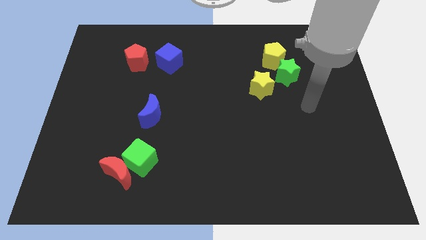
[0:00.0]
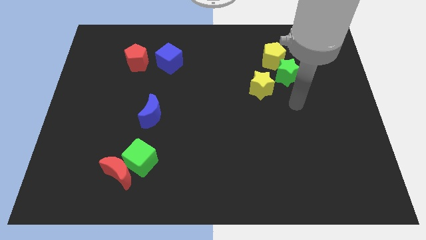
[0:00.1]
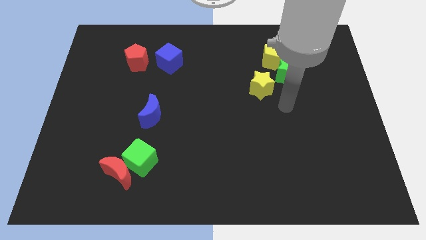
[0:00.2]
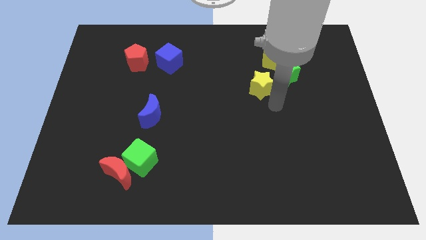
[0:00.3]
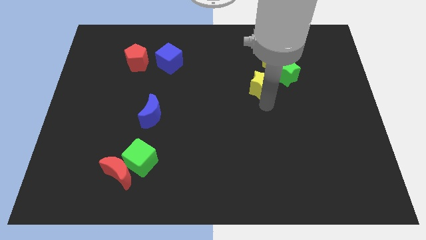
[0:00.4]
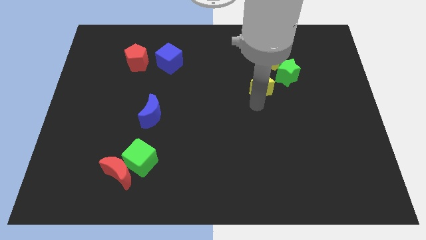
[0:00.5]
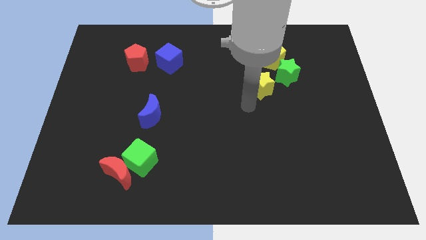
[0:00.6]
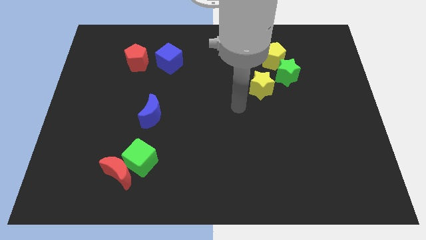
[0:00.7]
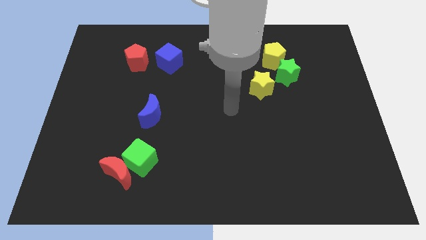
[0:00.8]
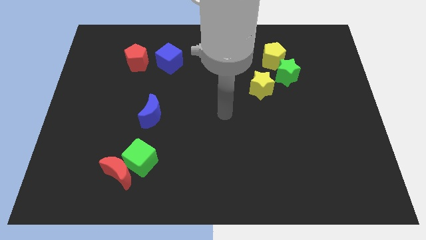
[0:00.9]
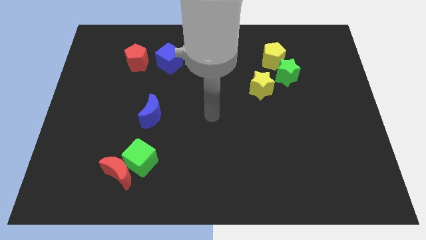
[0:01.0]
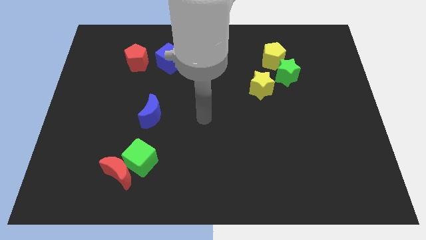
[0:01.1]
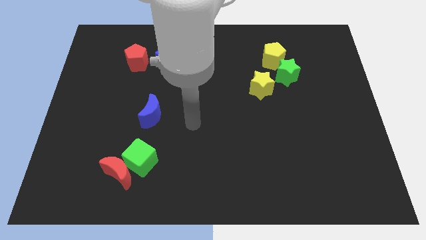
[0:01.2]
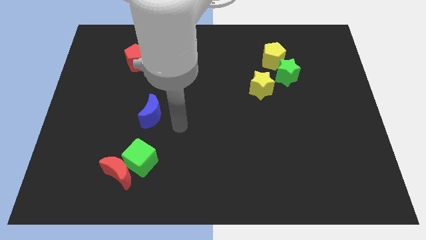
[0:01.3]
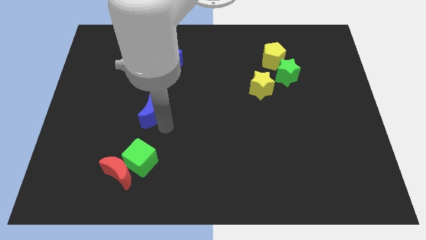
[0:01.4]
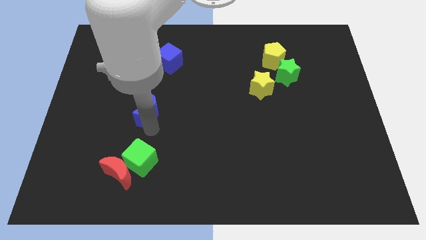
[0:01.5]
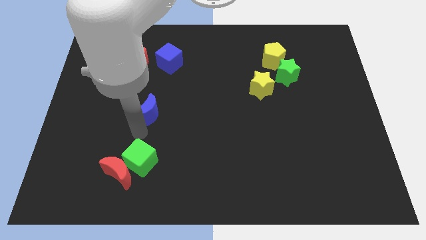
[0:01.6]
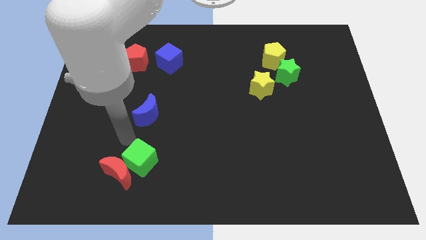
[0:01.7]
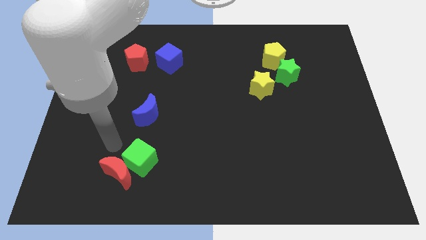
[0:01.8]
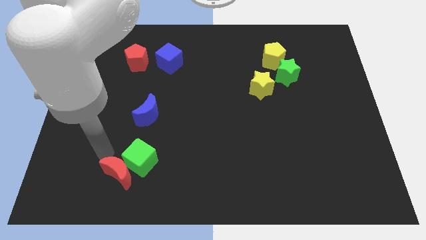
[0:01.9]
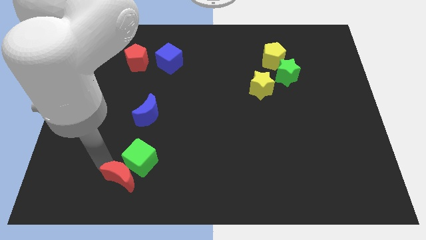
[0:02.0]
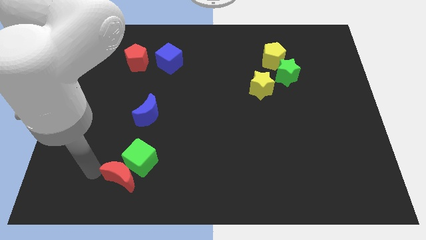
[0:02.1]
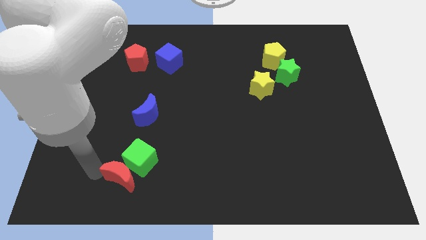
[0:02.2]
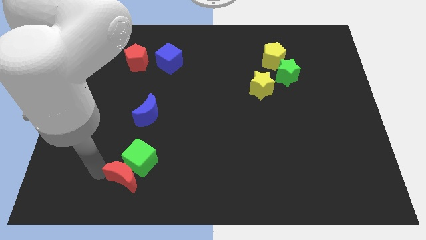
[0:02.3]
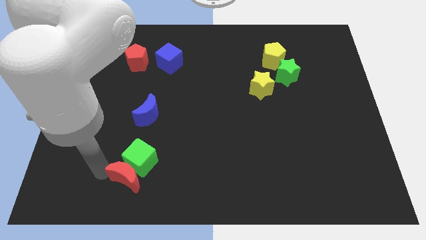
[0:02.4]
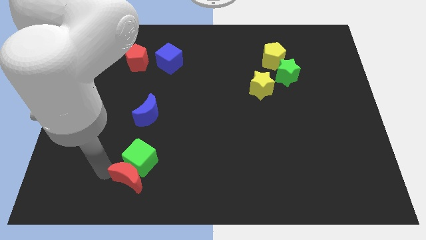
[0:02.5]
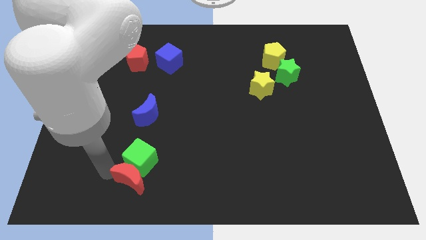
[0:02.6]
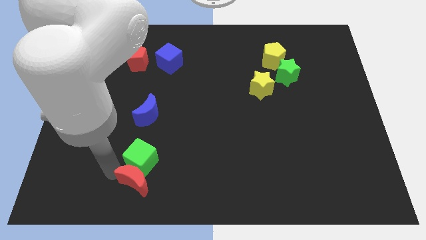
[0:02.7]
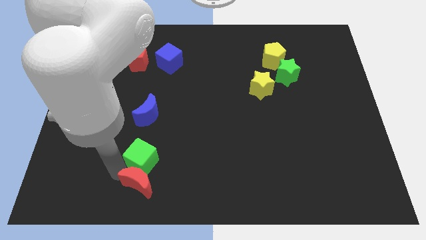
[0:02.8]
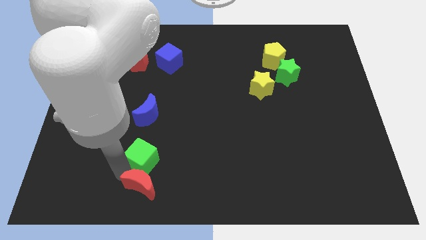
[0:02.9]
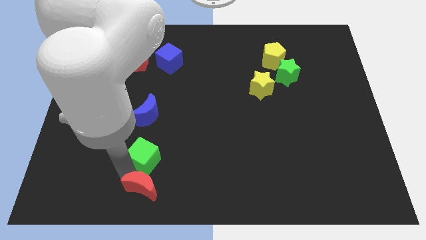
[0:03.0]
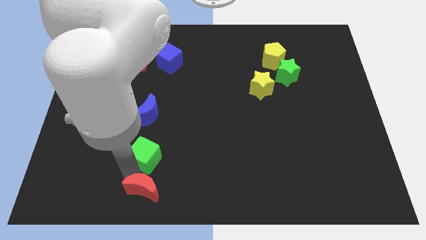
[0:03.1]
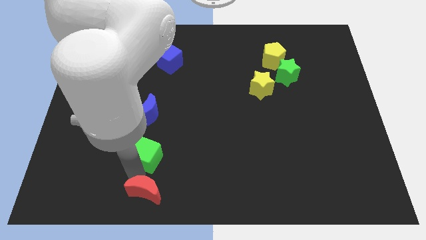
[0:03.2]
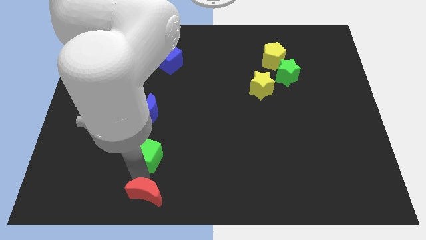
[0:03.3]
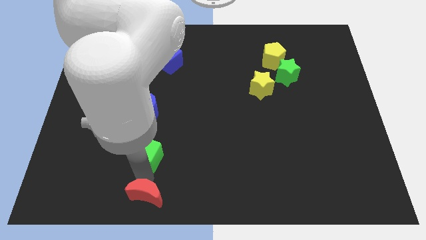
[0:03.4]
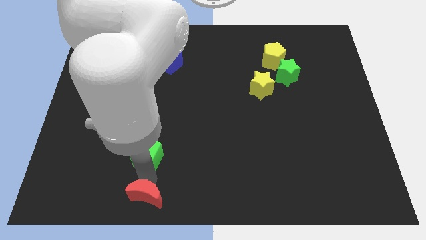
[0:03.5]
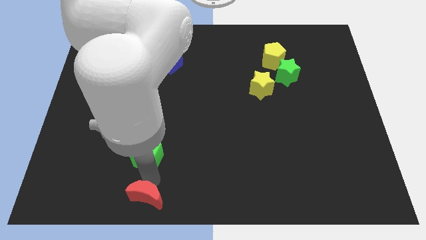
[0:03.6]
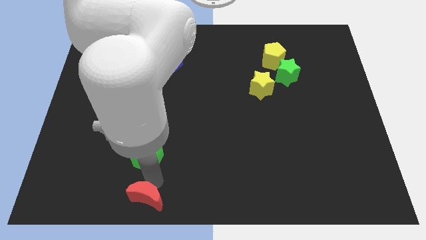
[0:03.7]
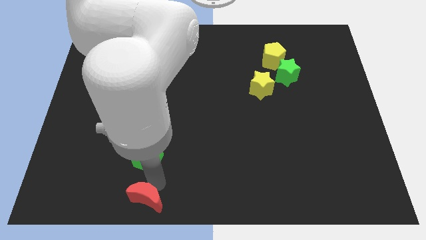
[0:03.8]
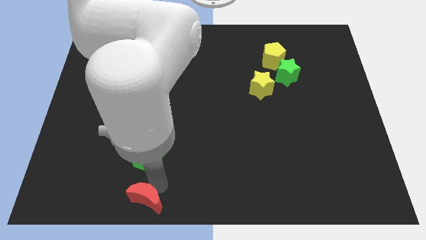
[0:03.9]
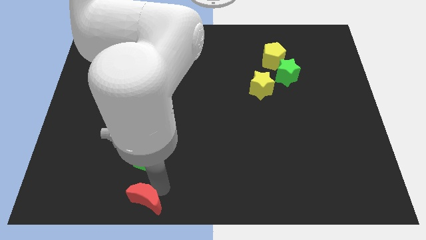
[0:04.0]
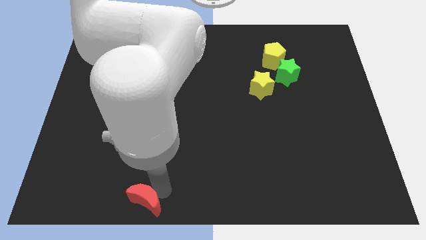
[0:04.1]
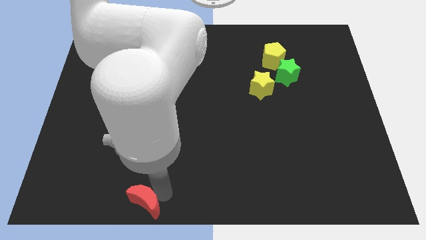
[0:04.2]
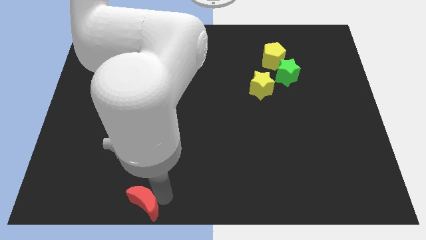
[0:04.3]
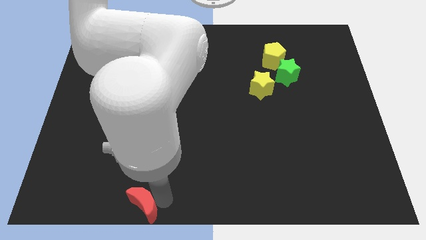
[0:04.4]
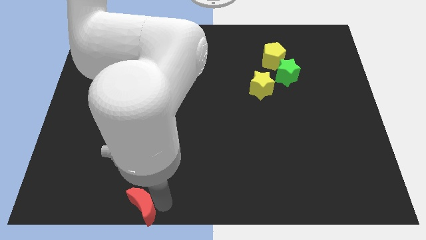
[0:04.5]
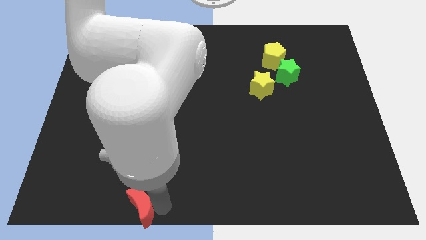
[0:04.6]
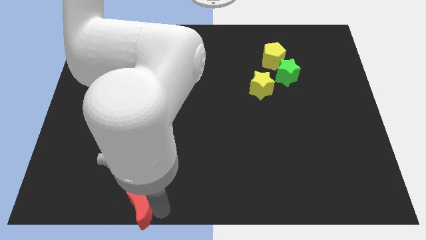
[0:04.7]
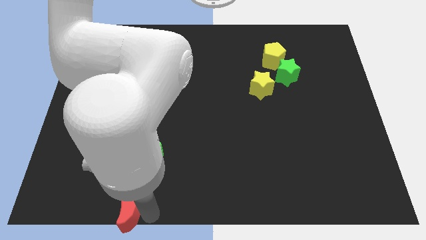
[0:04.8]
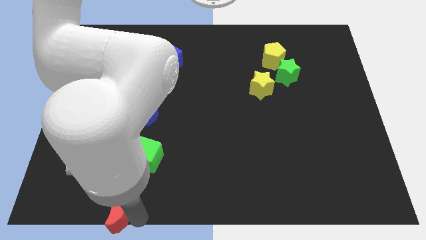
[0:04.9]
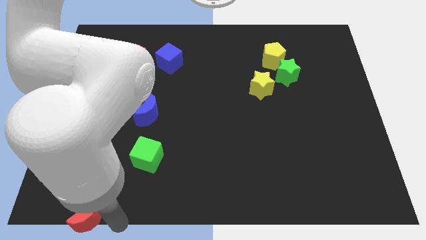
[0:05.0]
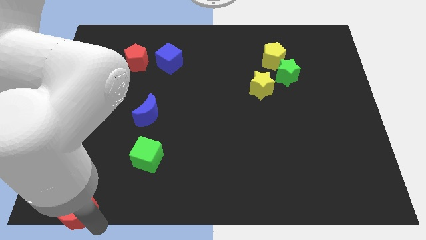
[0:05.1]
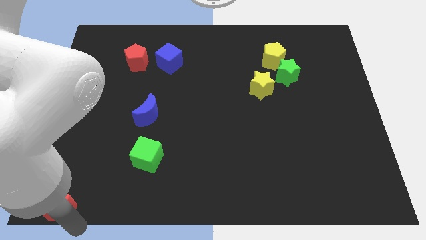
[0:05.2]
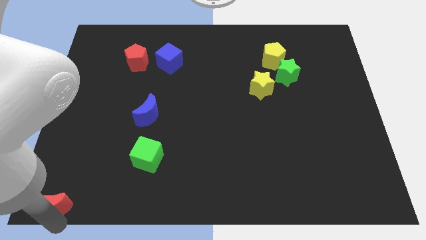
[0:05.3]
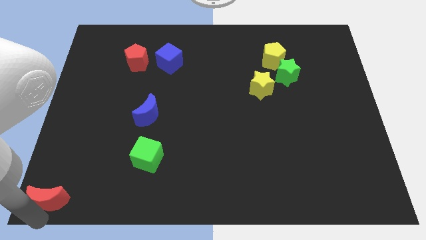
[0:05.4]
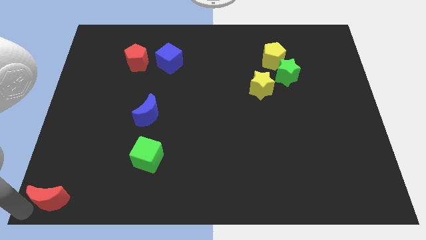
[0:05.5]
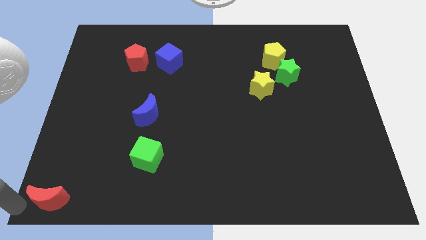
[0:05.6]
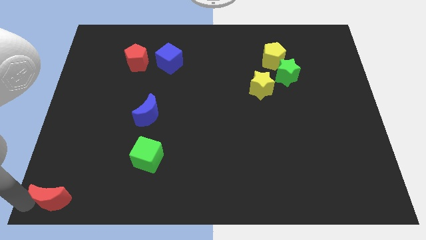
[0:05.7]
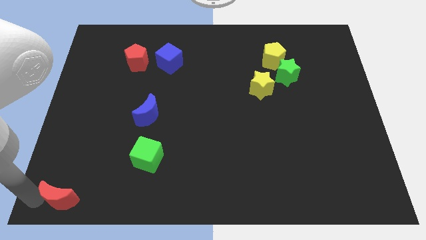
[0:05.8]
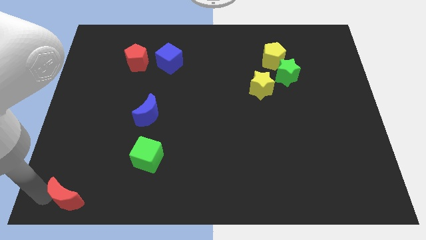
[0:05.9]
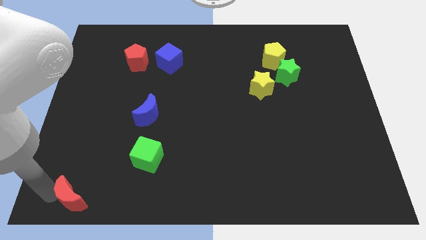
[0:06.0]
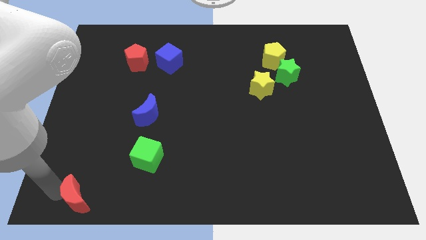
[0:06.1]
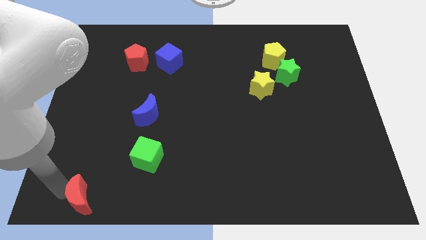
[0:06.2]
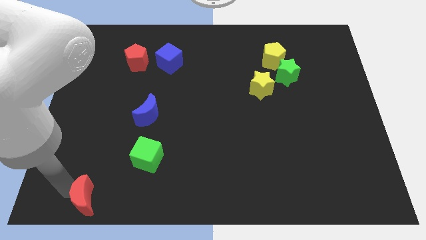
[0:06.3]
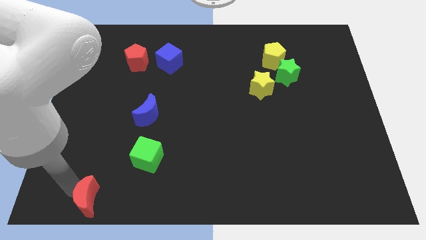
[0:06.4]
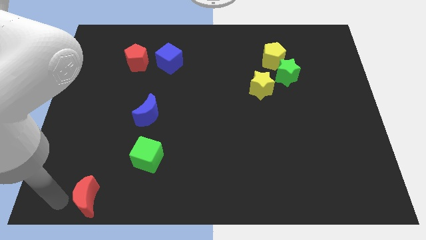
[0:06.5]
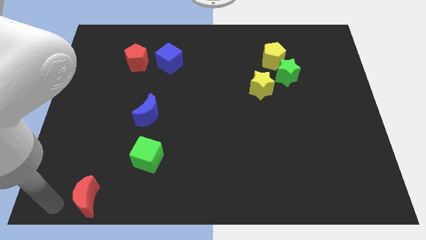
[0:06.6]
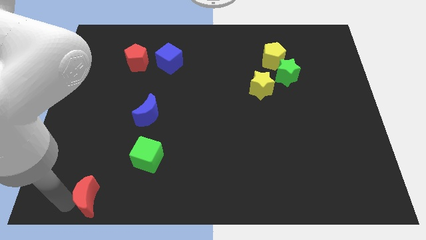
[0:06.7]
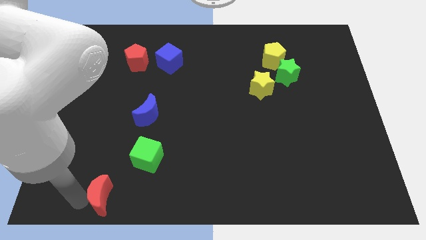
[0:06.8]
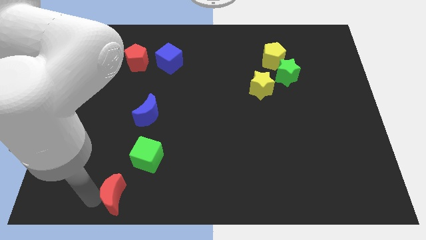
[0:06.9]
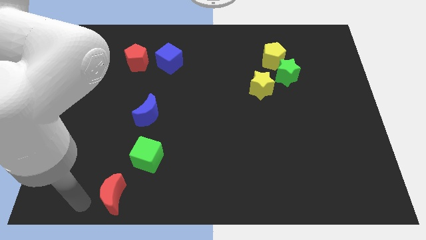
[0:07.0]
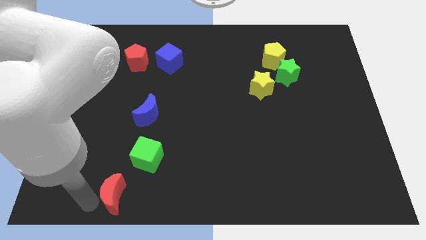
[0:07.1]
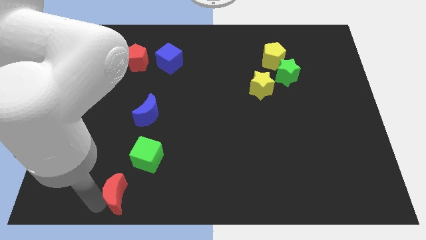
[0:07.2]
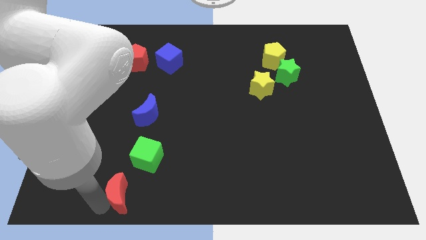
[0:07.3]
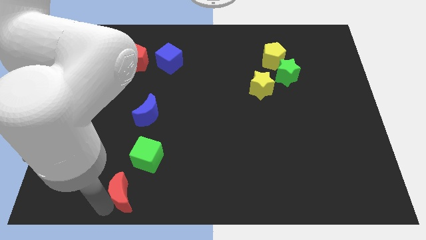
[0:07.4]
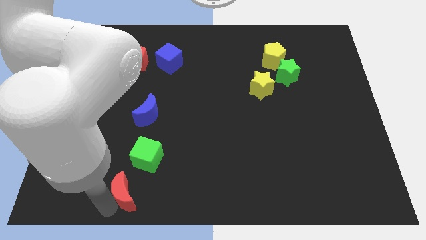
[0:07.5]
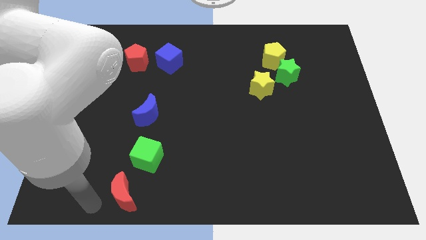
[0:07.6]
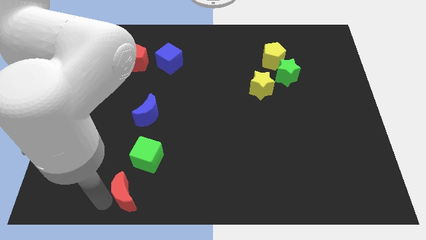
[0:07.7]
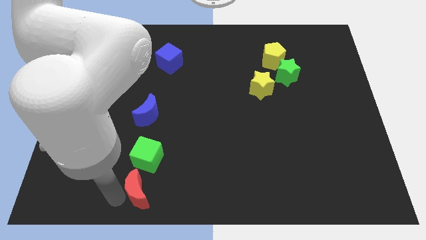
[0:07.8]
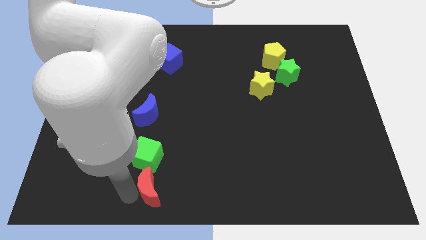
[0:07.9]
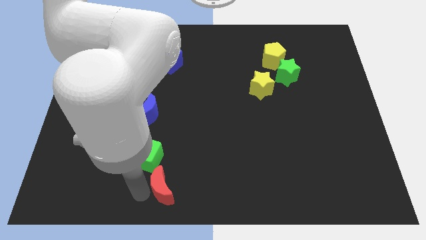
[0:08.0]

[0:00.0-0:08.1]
push the red moon a little bit to the right
